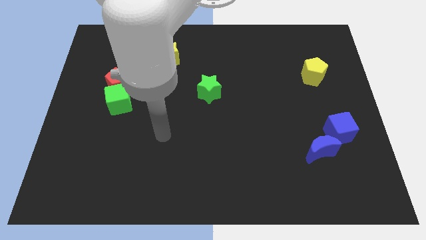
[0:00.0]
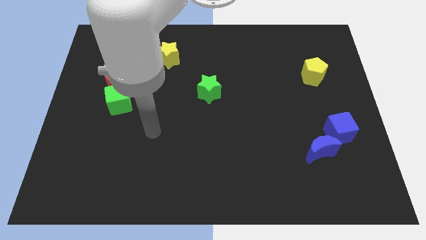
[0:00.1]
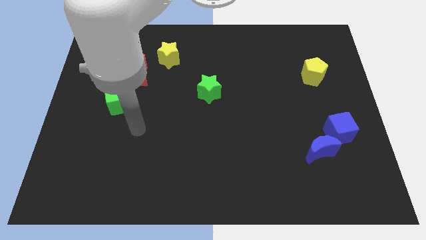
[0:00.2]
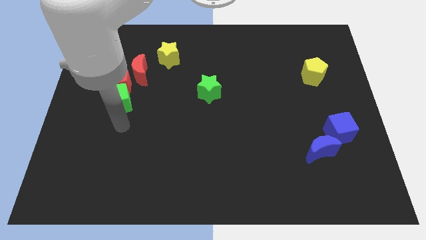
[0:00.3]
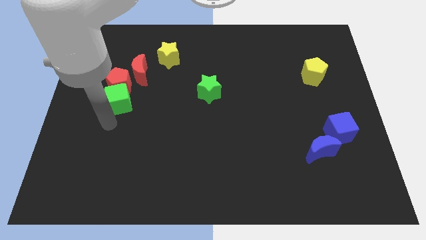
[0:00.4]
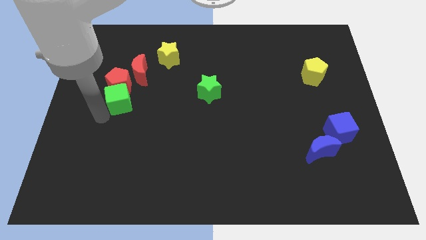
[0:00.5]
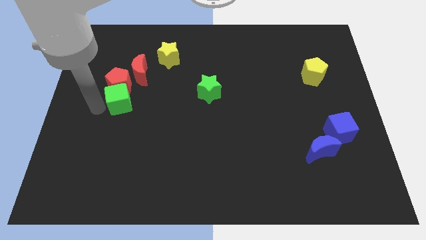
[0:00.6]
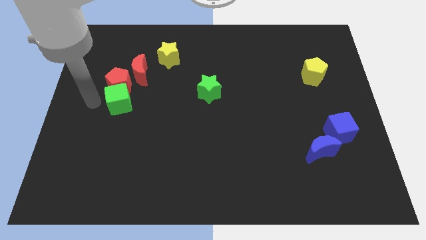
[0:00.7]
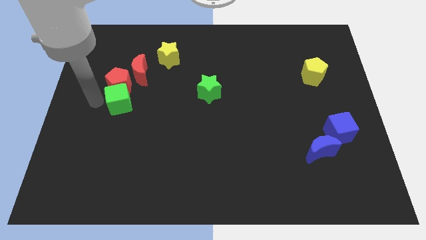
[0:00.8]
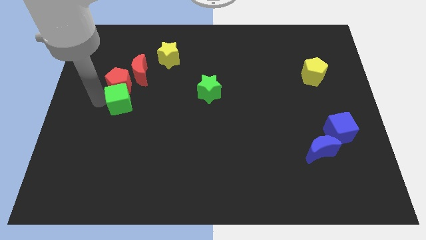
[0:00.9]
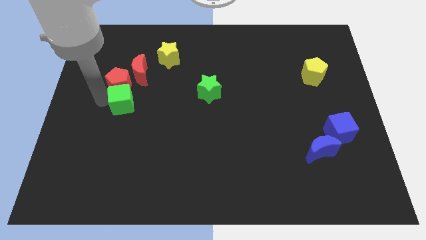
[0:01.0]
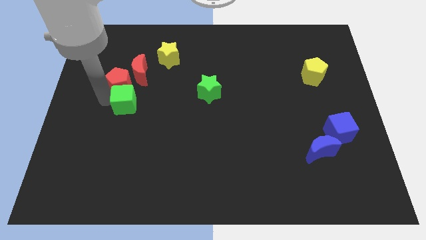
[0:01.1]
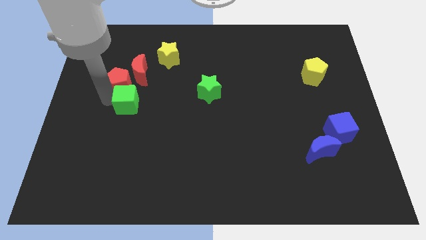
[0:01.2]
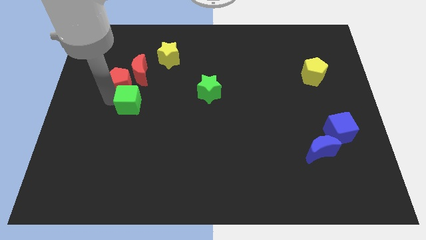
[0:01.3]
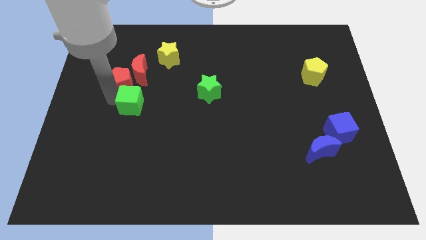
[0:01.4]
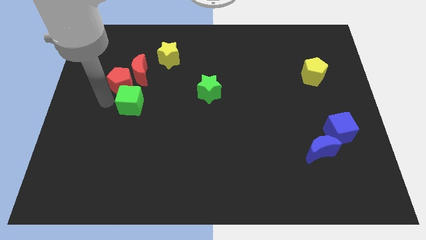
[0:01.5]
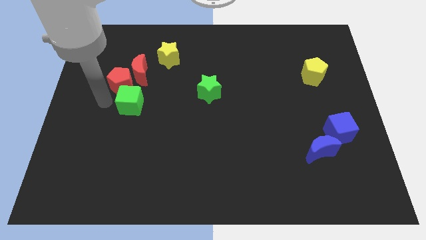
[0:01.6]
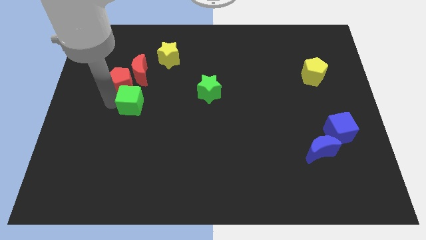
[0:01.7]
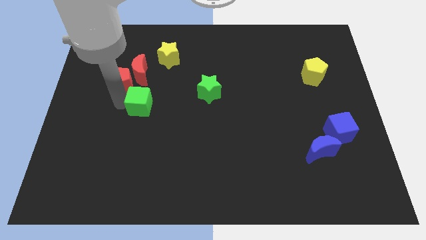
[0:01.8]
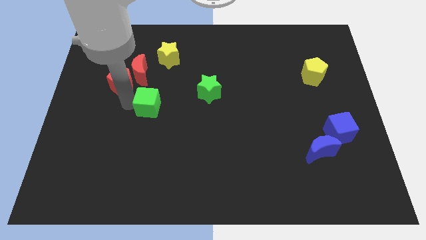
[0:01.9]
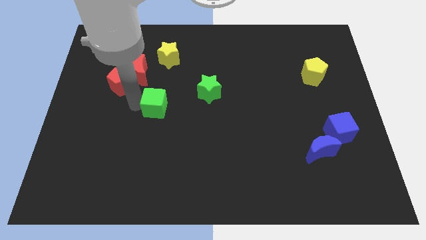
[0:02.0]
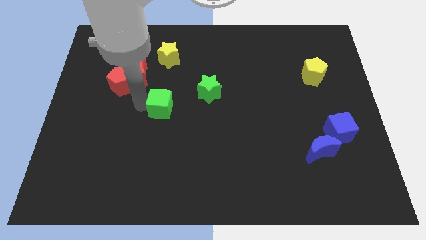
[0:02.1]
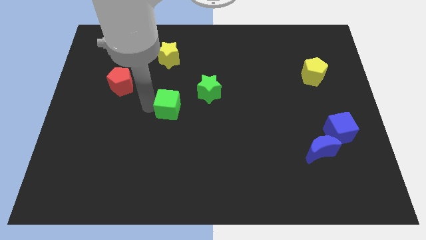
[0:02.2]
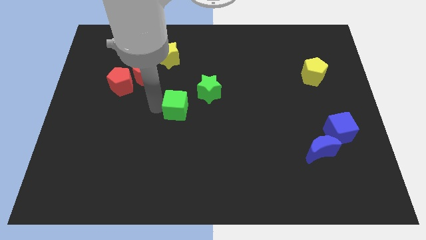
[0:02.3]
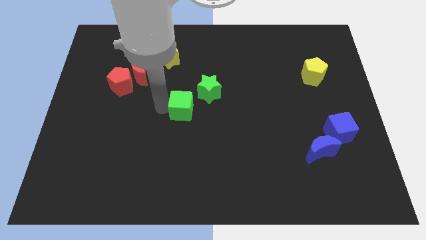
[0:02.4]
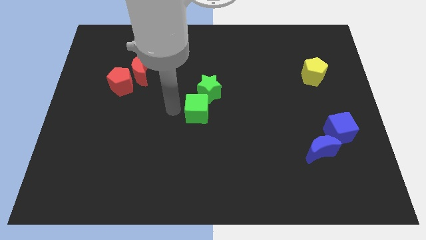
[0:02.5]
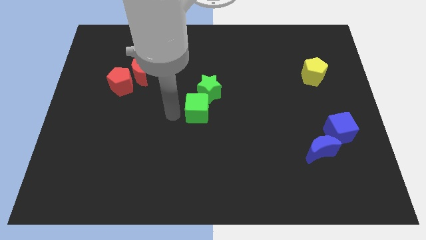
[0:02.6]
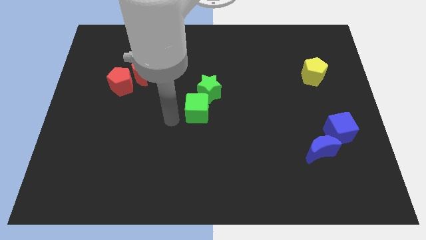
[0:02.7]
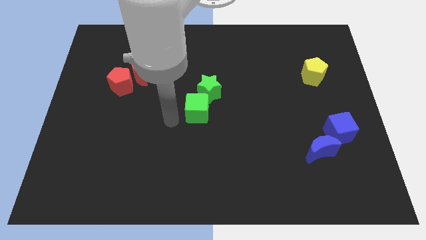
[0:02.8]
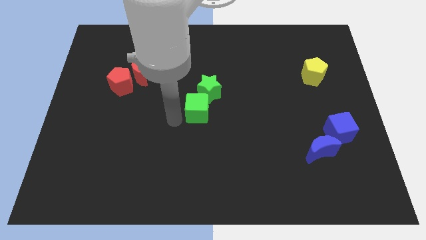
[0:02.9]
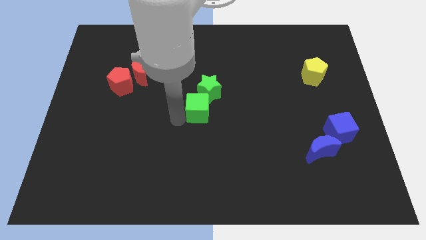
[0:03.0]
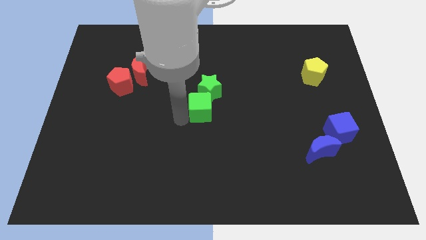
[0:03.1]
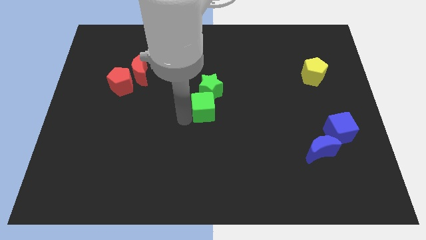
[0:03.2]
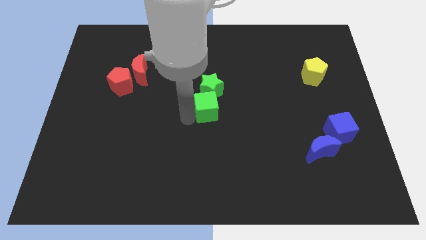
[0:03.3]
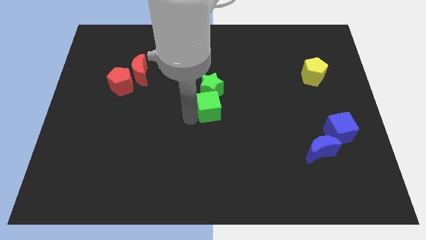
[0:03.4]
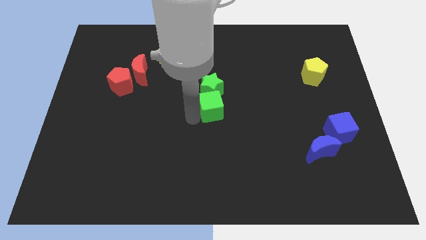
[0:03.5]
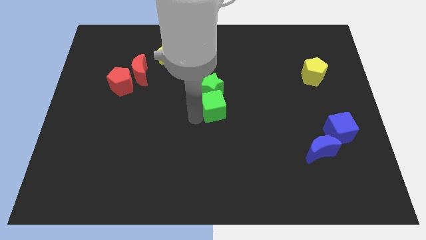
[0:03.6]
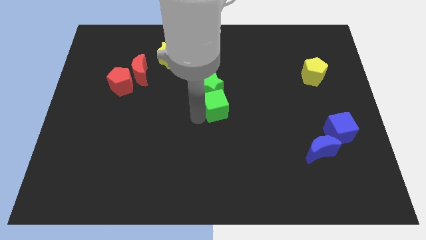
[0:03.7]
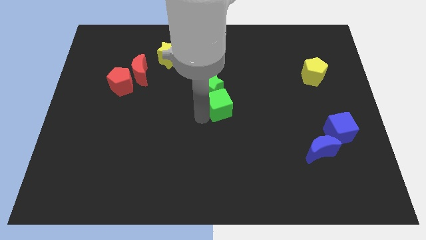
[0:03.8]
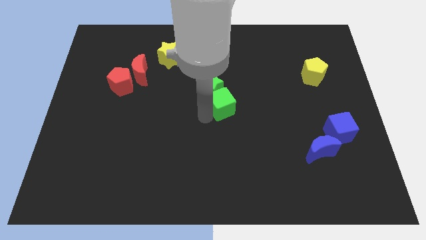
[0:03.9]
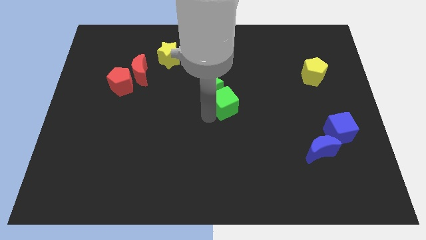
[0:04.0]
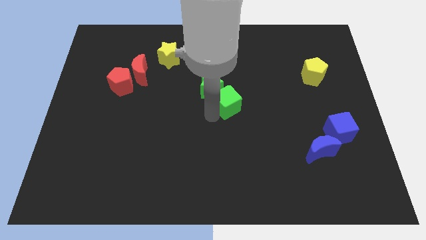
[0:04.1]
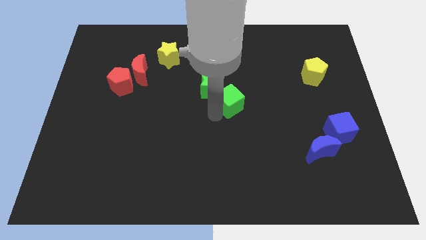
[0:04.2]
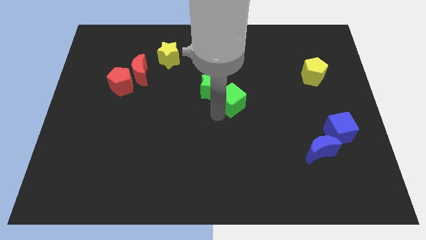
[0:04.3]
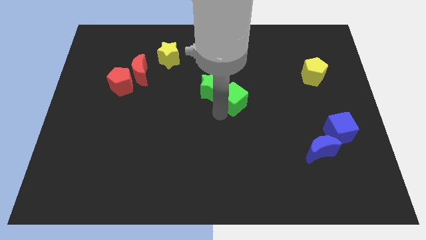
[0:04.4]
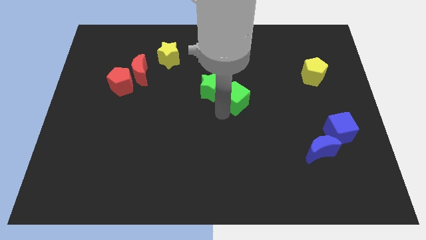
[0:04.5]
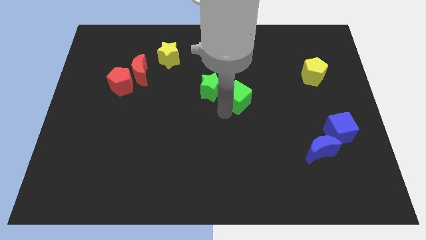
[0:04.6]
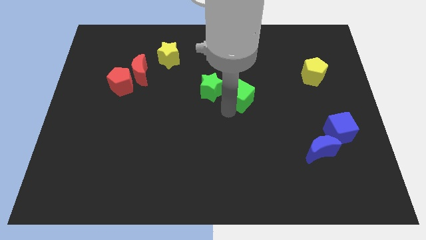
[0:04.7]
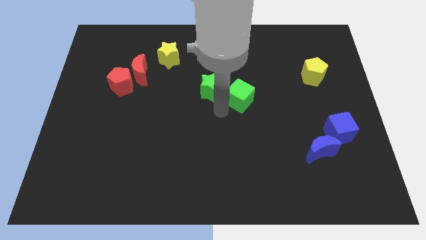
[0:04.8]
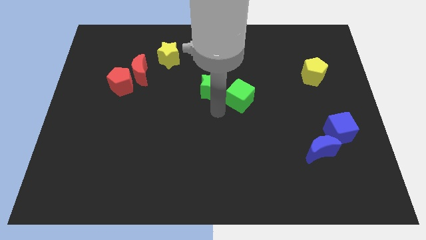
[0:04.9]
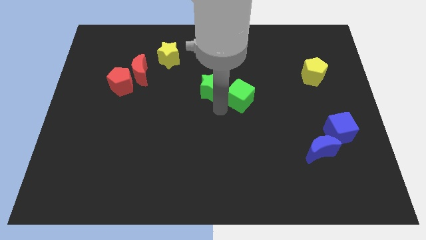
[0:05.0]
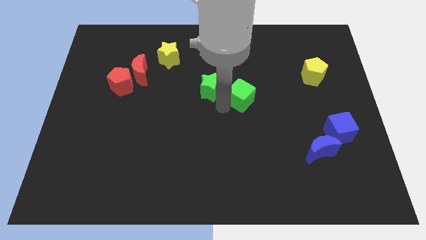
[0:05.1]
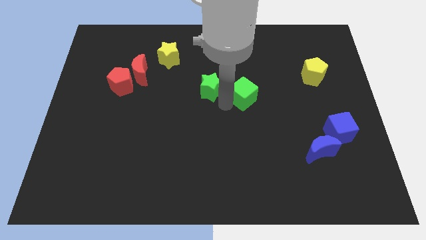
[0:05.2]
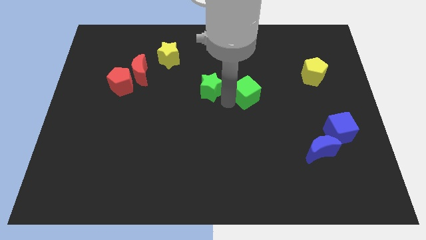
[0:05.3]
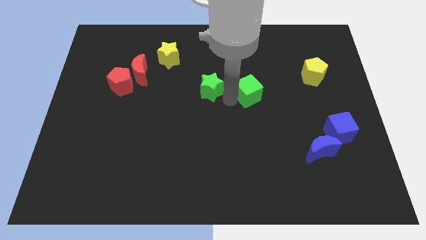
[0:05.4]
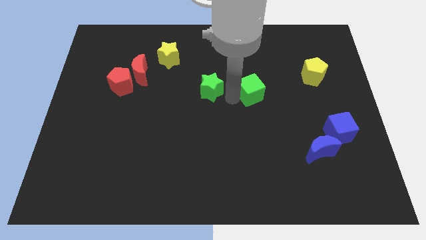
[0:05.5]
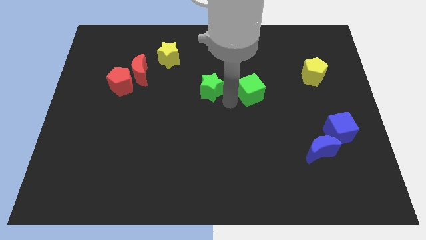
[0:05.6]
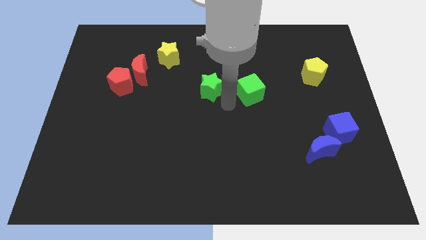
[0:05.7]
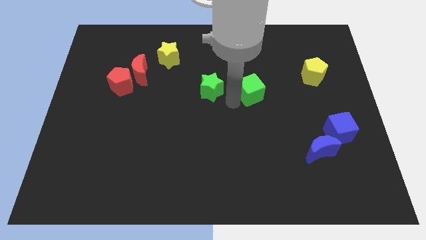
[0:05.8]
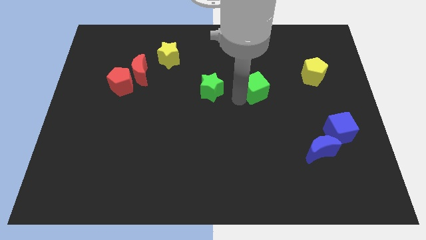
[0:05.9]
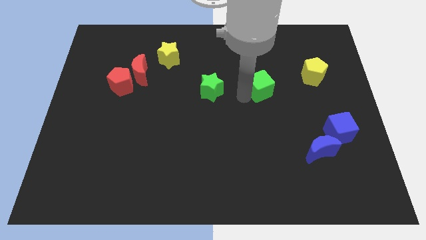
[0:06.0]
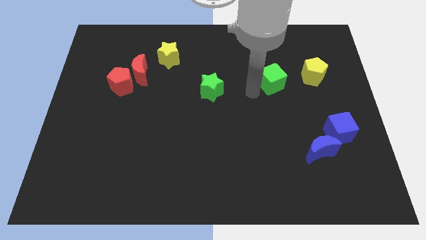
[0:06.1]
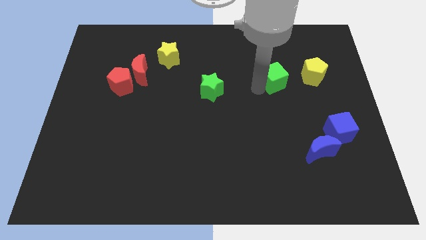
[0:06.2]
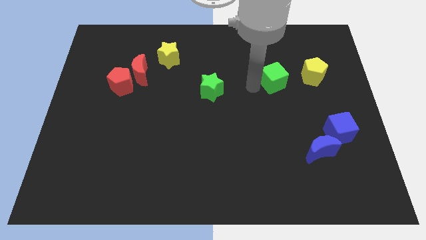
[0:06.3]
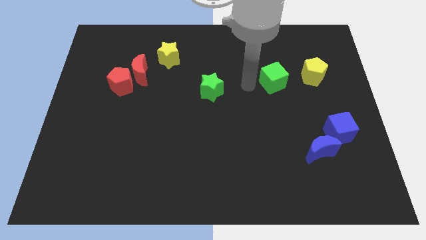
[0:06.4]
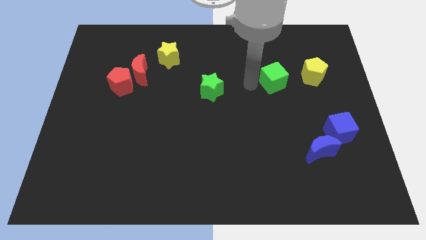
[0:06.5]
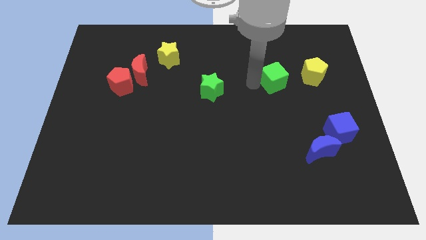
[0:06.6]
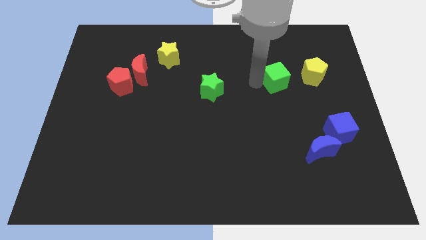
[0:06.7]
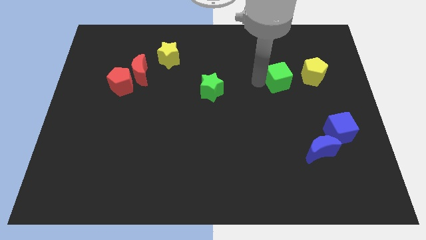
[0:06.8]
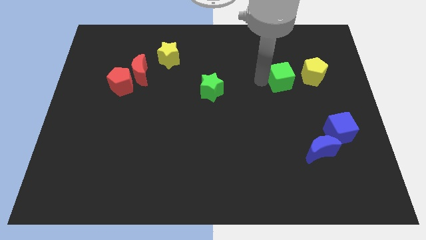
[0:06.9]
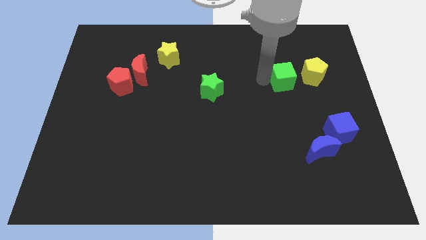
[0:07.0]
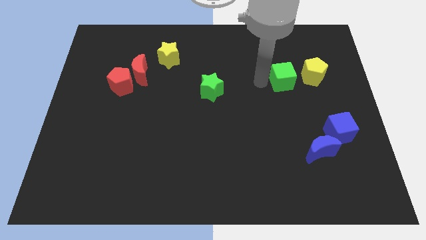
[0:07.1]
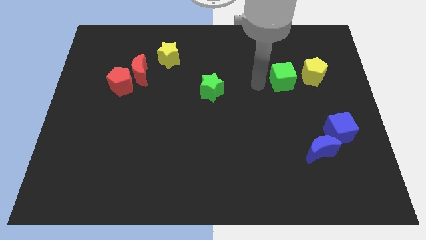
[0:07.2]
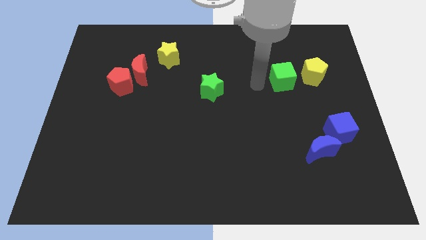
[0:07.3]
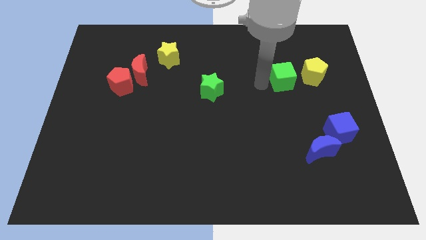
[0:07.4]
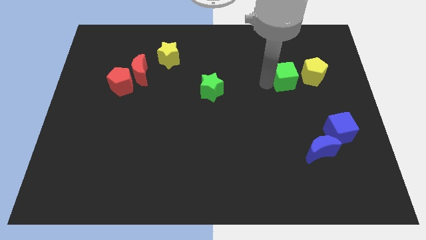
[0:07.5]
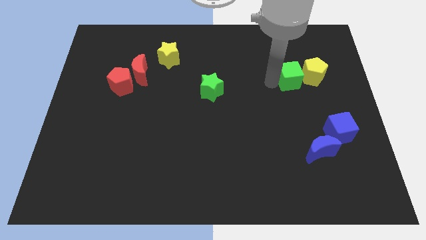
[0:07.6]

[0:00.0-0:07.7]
put the green cube to the yellow pentagon
